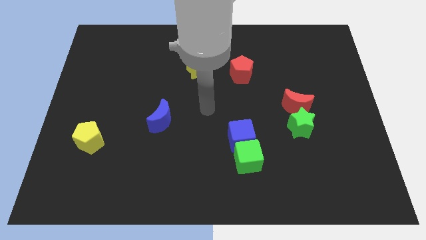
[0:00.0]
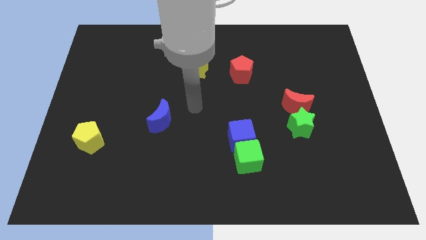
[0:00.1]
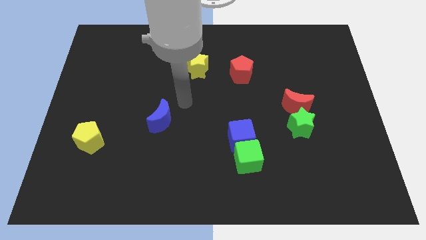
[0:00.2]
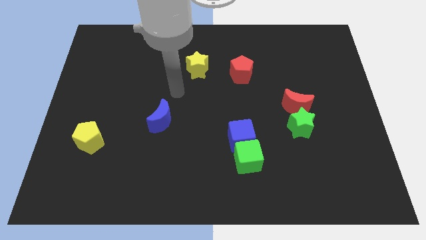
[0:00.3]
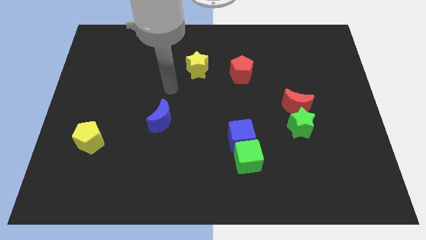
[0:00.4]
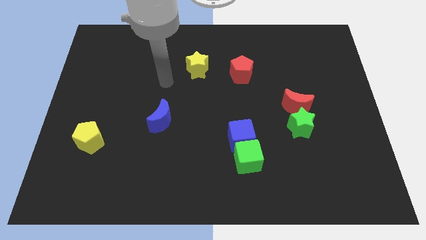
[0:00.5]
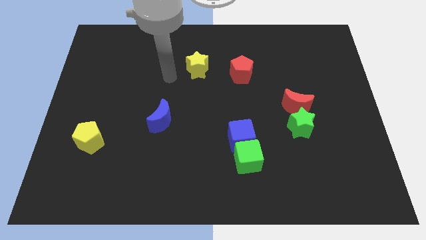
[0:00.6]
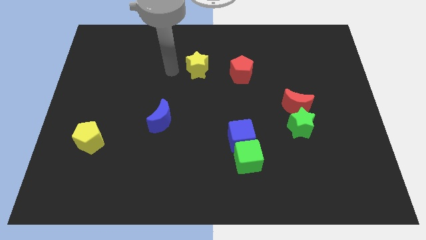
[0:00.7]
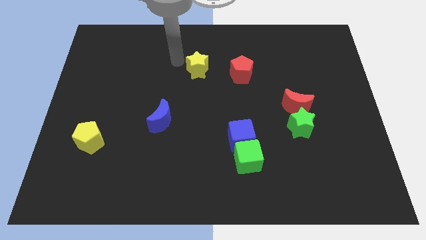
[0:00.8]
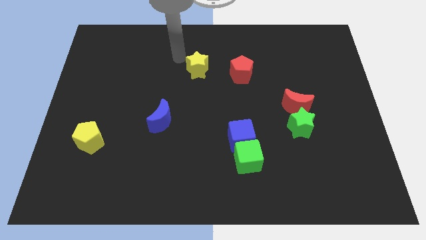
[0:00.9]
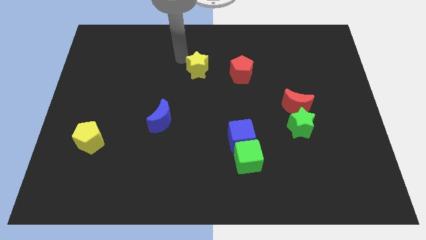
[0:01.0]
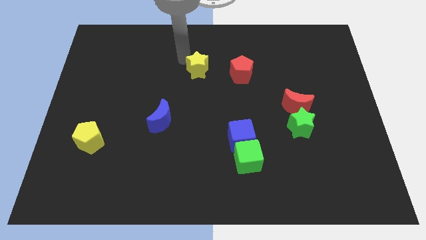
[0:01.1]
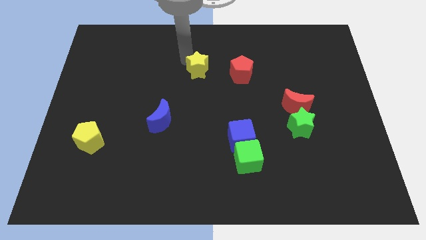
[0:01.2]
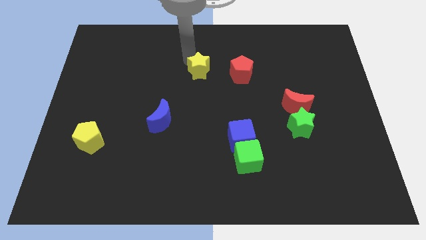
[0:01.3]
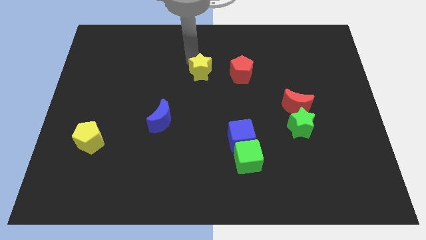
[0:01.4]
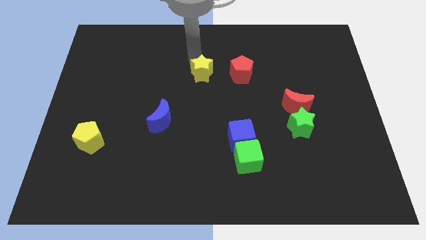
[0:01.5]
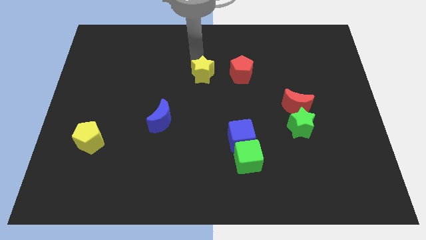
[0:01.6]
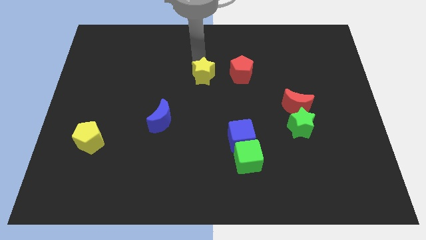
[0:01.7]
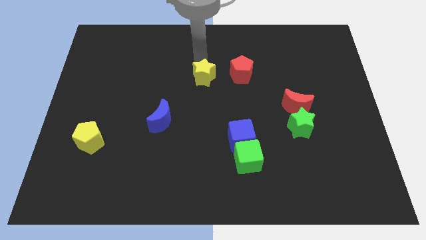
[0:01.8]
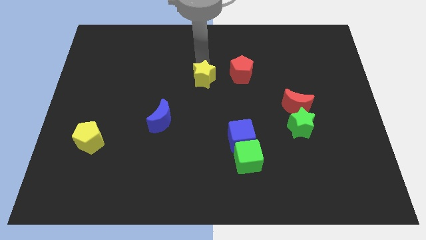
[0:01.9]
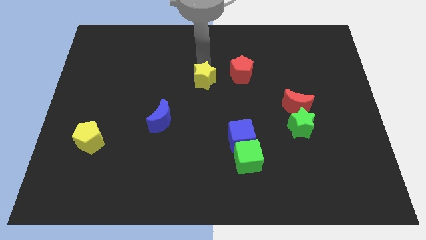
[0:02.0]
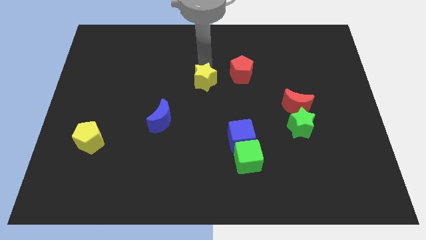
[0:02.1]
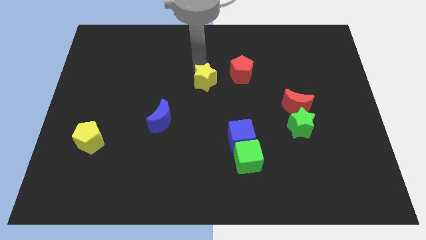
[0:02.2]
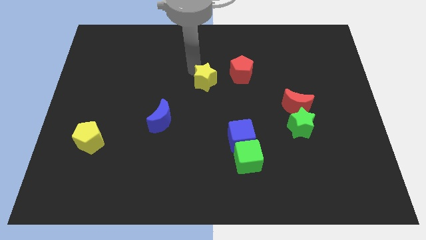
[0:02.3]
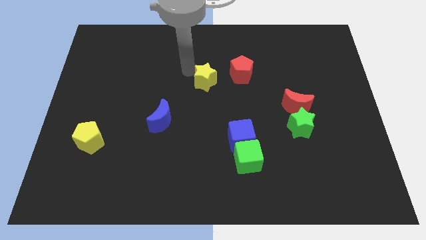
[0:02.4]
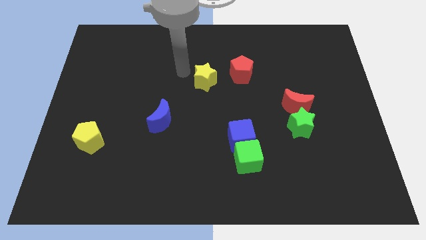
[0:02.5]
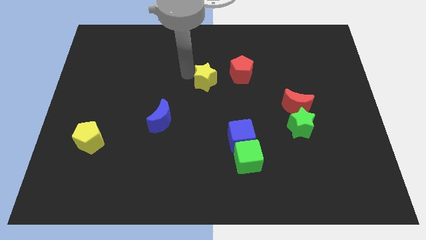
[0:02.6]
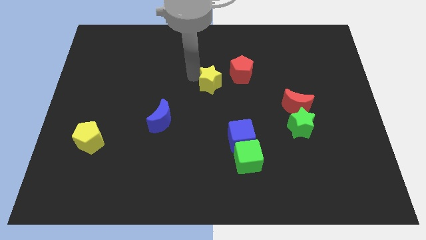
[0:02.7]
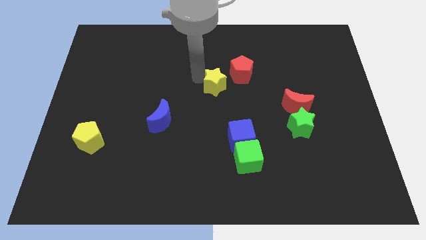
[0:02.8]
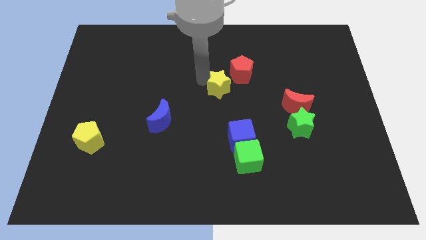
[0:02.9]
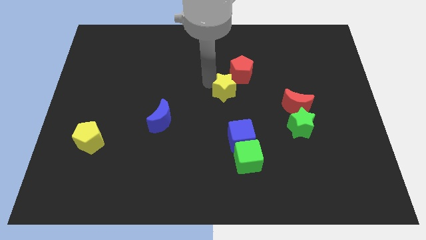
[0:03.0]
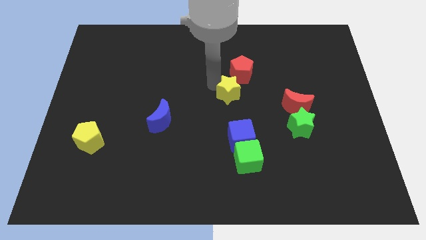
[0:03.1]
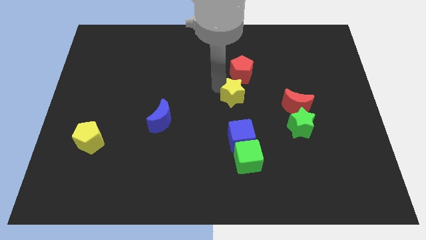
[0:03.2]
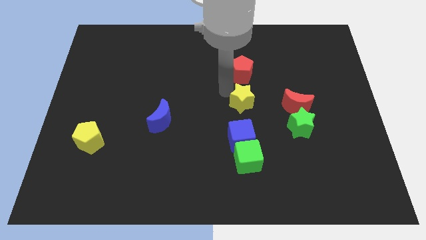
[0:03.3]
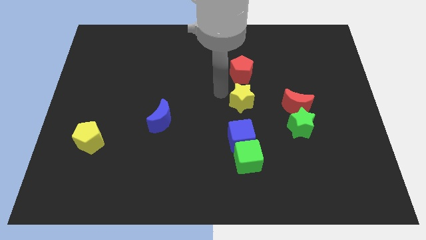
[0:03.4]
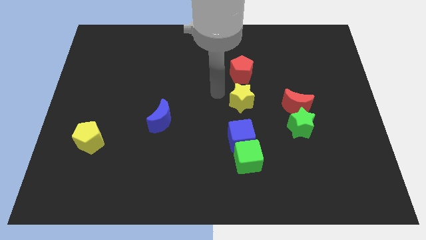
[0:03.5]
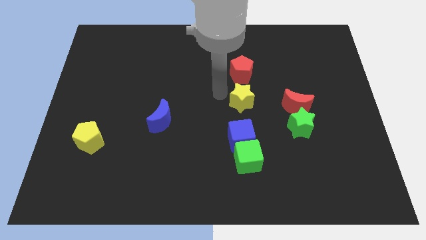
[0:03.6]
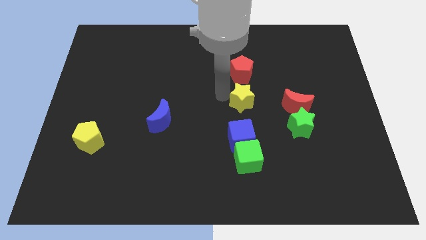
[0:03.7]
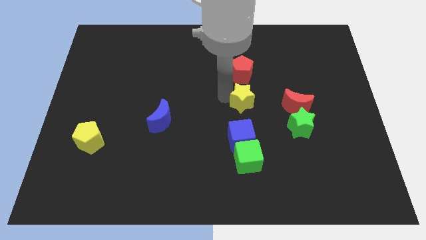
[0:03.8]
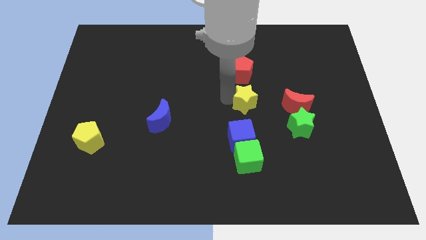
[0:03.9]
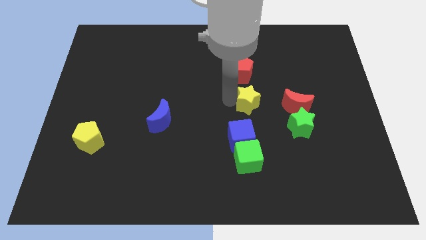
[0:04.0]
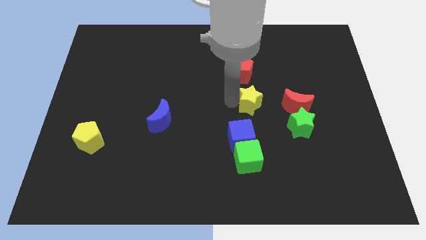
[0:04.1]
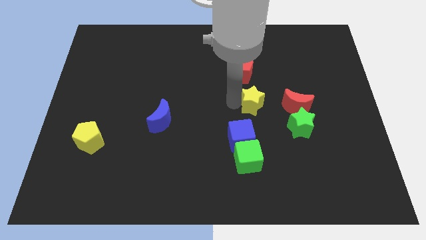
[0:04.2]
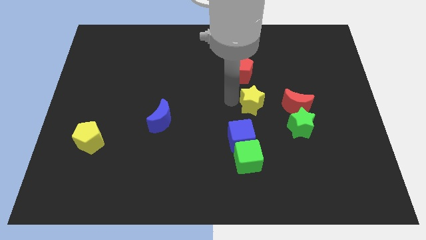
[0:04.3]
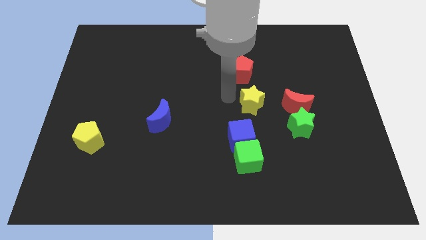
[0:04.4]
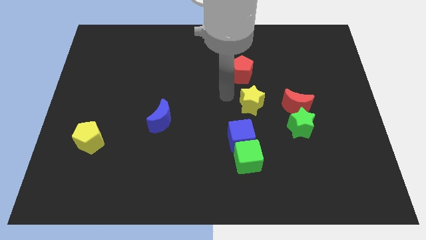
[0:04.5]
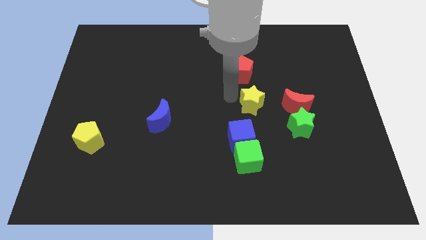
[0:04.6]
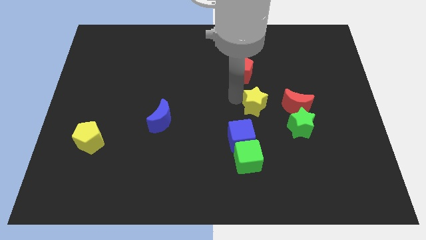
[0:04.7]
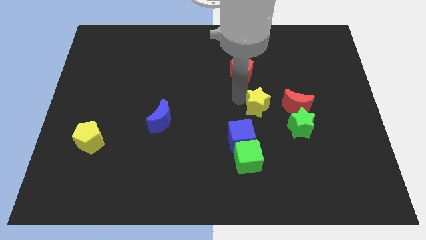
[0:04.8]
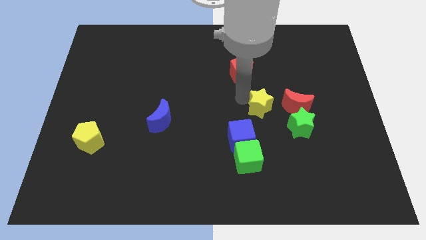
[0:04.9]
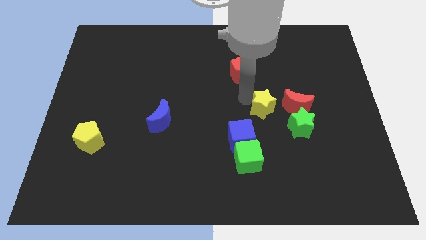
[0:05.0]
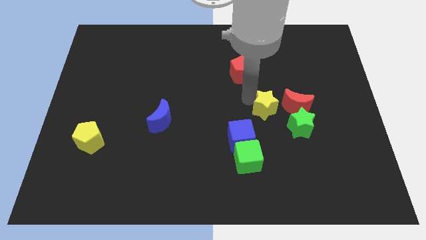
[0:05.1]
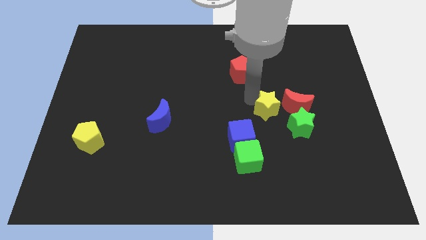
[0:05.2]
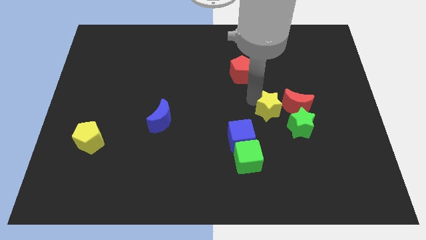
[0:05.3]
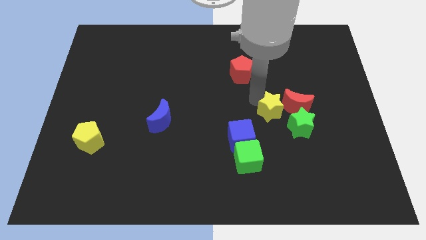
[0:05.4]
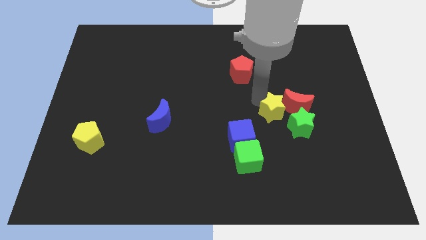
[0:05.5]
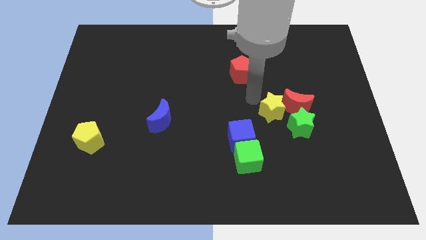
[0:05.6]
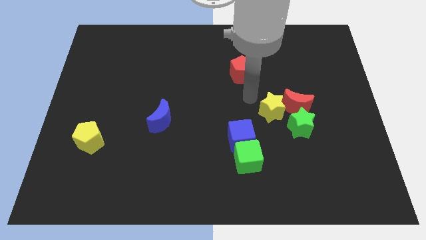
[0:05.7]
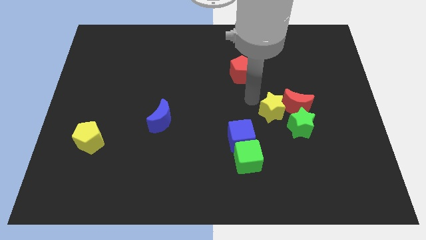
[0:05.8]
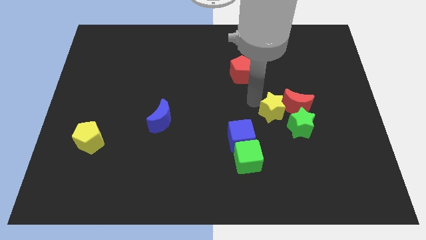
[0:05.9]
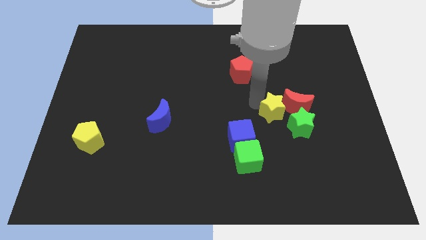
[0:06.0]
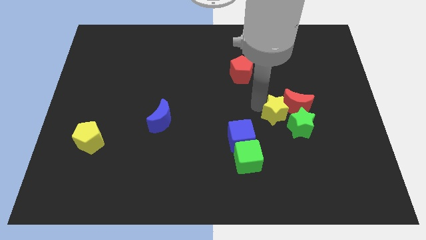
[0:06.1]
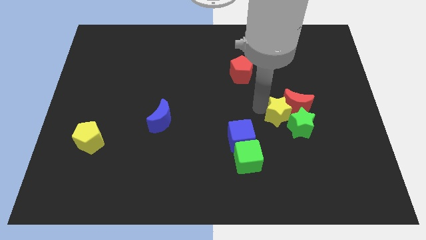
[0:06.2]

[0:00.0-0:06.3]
move the yellow star to the green star

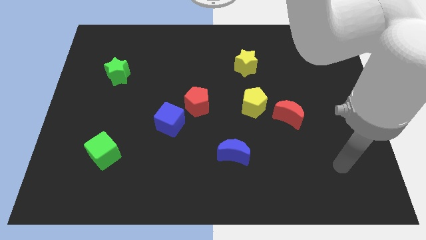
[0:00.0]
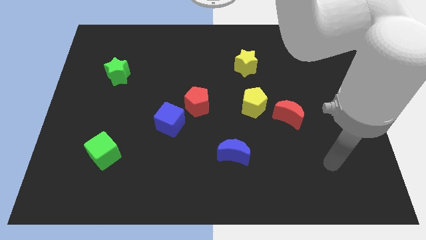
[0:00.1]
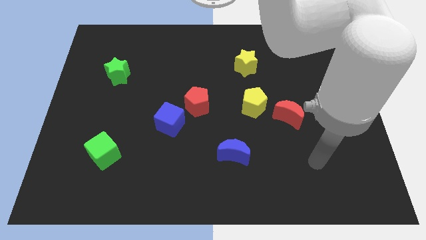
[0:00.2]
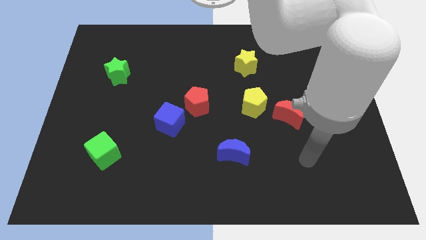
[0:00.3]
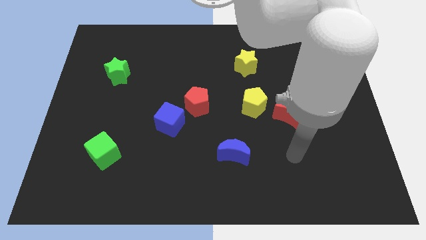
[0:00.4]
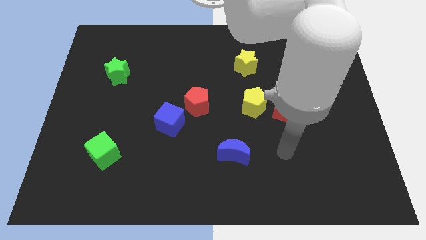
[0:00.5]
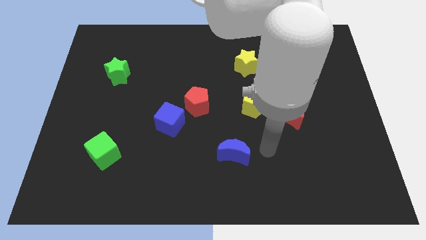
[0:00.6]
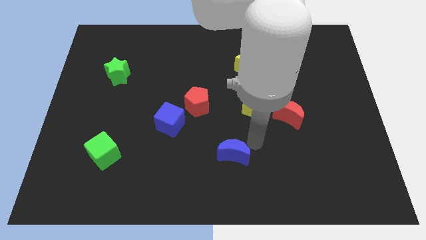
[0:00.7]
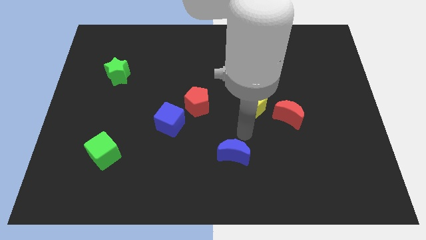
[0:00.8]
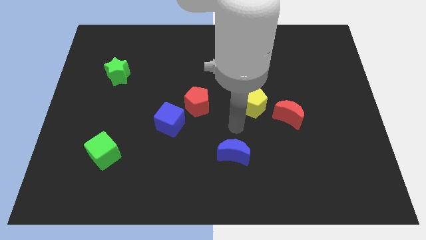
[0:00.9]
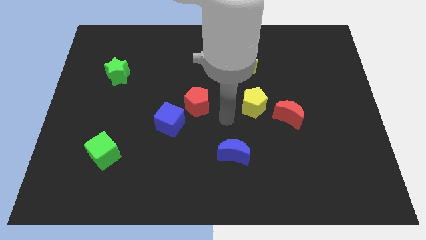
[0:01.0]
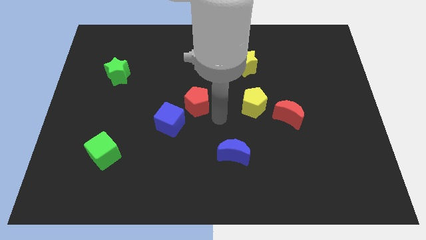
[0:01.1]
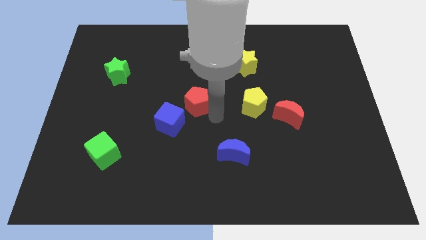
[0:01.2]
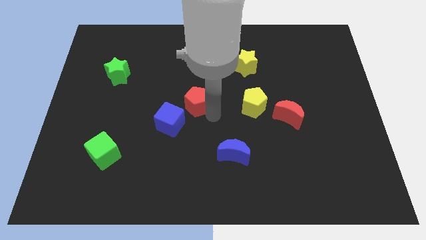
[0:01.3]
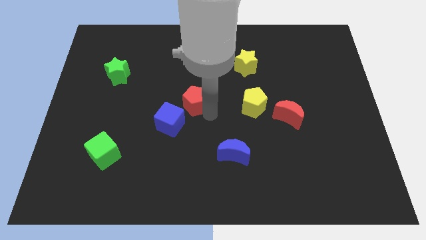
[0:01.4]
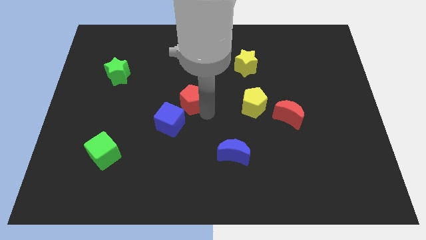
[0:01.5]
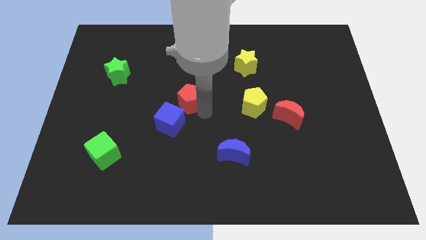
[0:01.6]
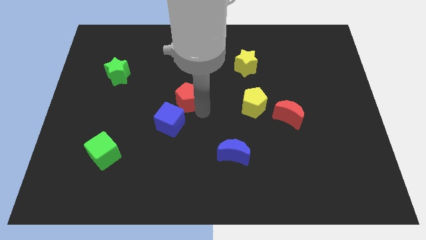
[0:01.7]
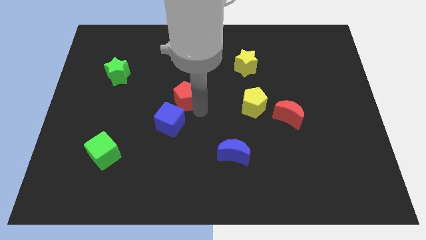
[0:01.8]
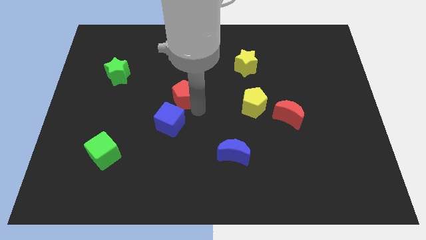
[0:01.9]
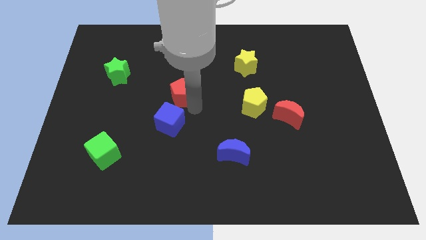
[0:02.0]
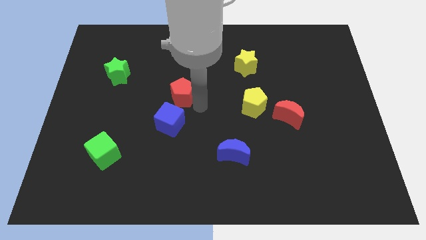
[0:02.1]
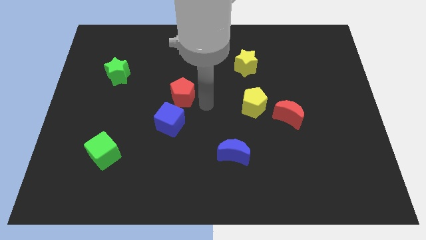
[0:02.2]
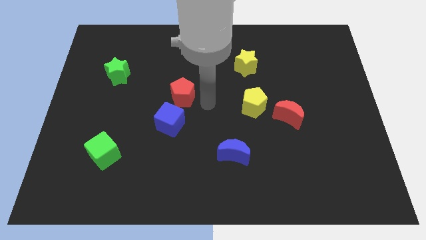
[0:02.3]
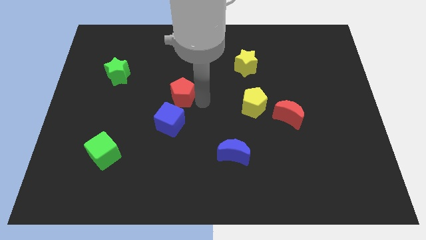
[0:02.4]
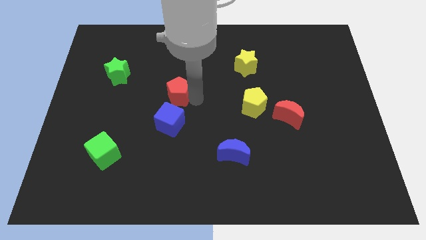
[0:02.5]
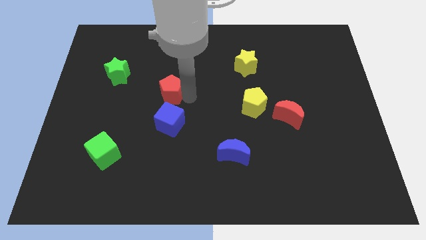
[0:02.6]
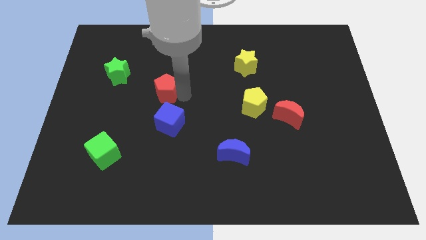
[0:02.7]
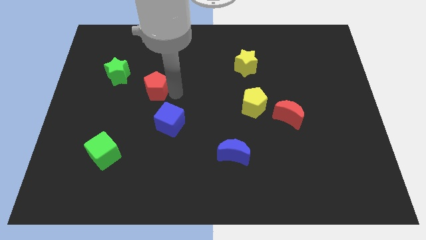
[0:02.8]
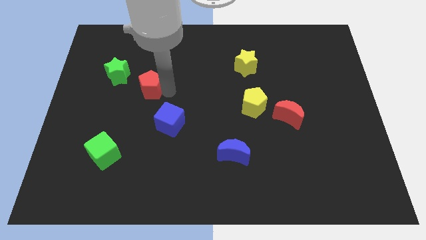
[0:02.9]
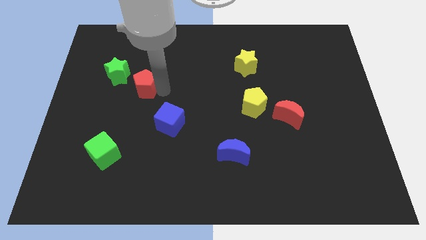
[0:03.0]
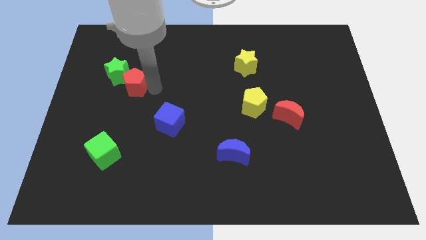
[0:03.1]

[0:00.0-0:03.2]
put the red pentagon close to the green star
